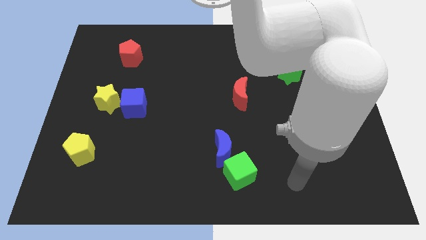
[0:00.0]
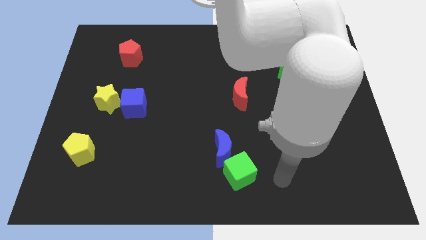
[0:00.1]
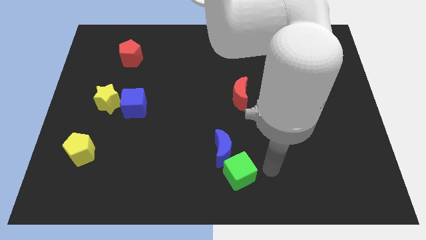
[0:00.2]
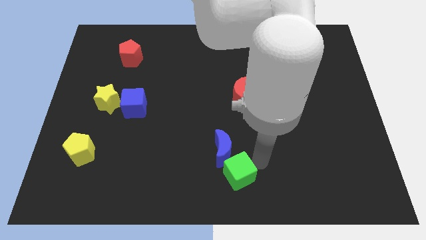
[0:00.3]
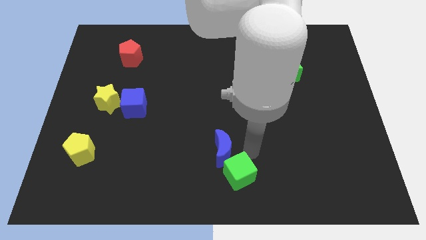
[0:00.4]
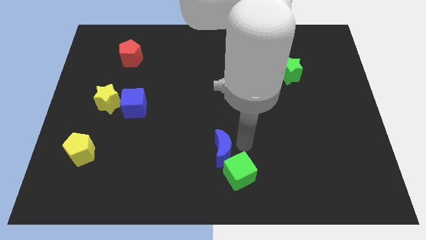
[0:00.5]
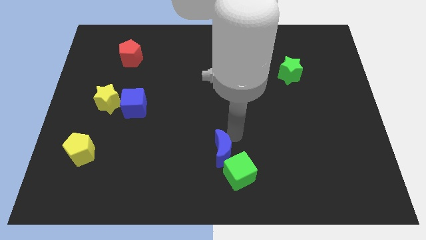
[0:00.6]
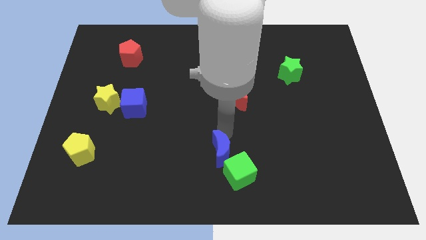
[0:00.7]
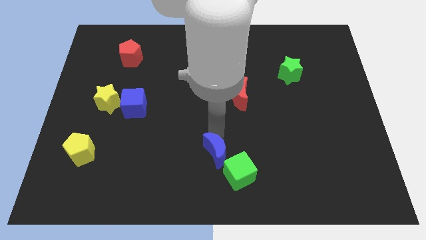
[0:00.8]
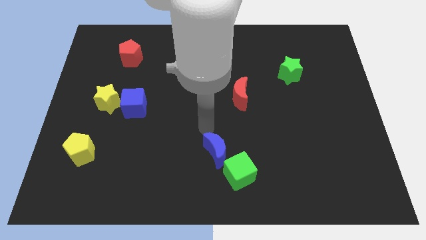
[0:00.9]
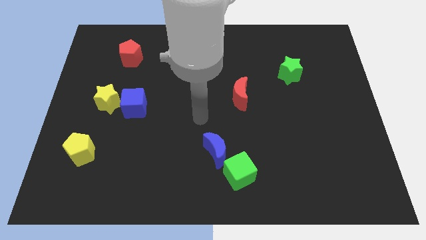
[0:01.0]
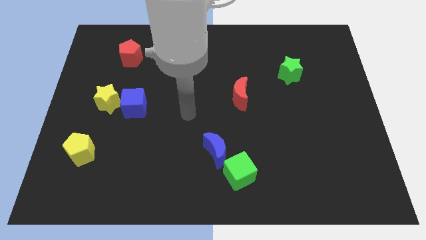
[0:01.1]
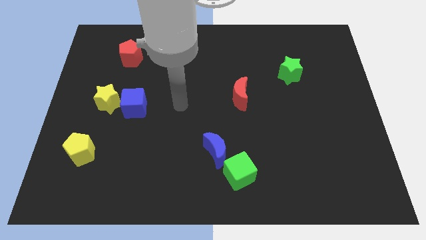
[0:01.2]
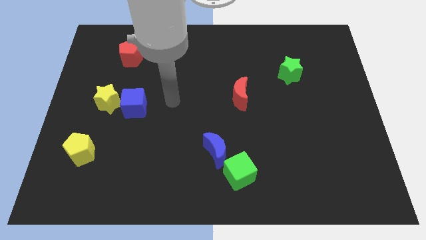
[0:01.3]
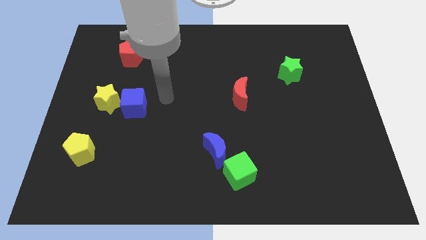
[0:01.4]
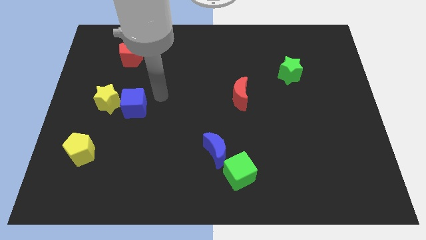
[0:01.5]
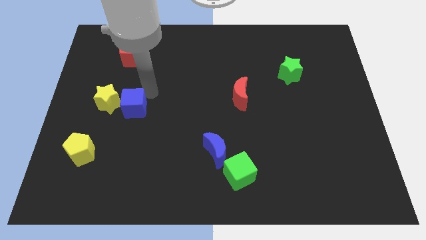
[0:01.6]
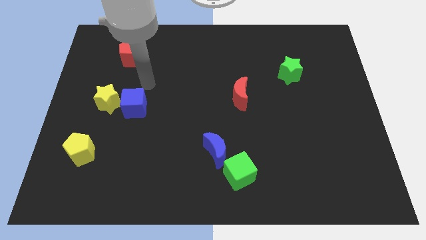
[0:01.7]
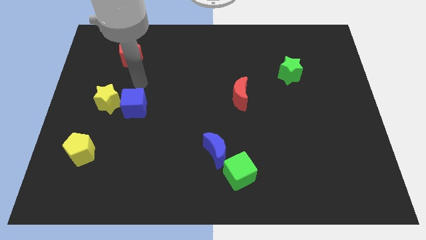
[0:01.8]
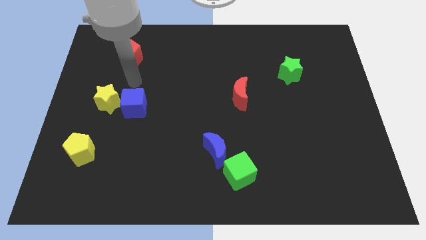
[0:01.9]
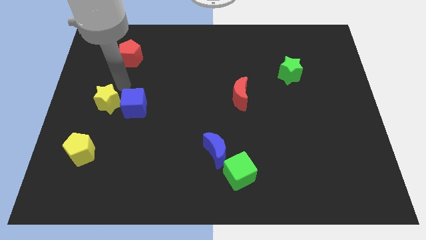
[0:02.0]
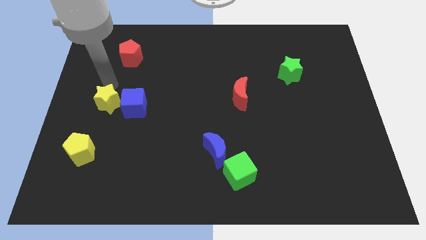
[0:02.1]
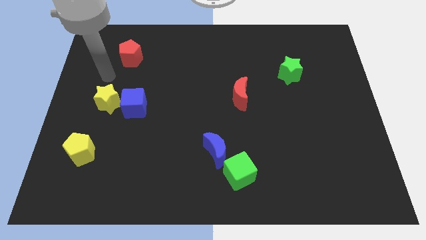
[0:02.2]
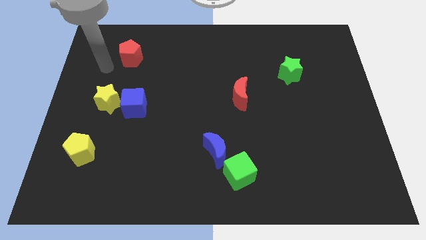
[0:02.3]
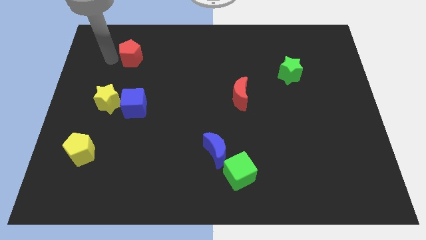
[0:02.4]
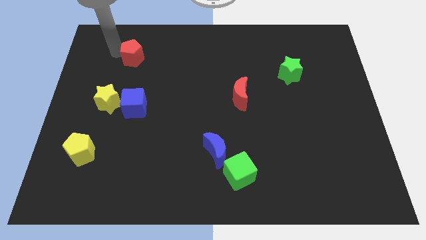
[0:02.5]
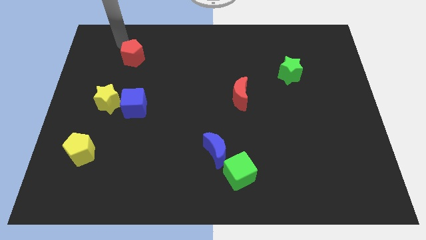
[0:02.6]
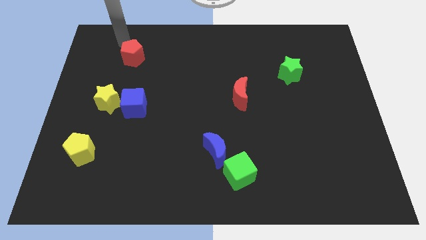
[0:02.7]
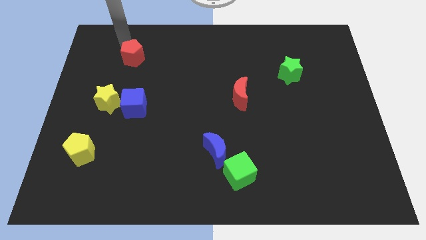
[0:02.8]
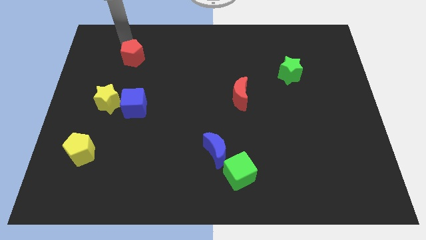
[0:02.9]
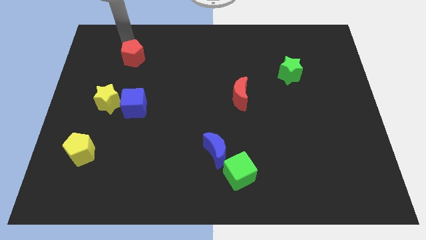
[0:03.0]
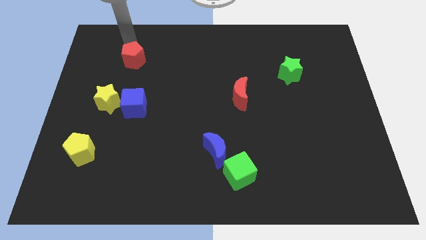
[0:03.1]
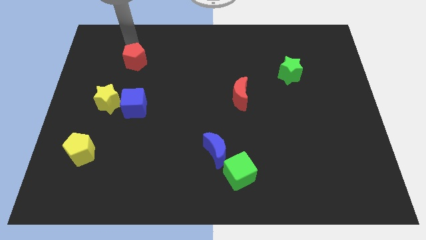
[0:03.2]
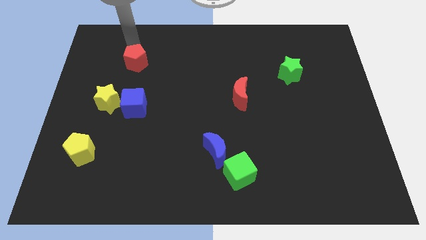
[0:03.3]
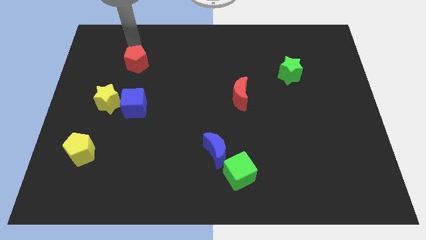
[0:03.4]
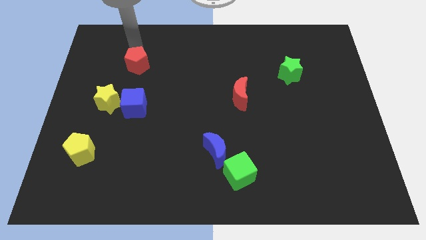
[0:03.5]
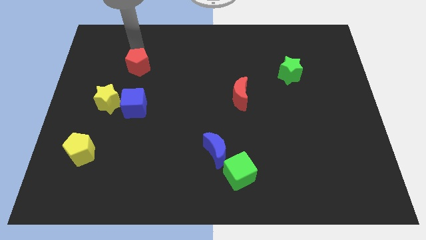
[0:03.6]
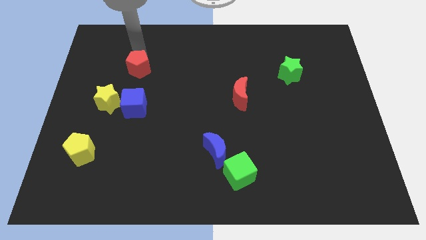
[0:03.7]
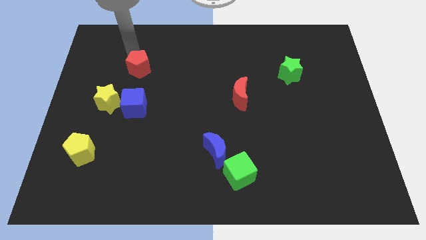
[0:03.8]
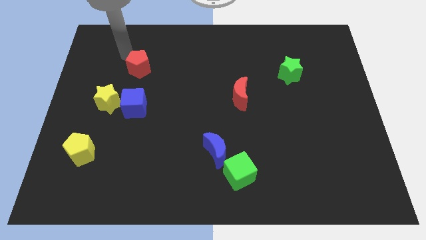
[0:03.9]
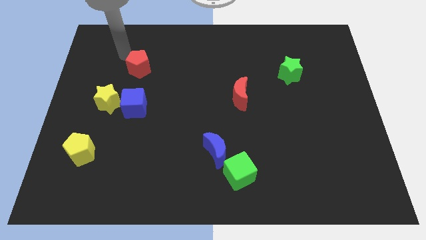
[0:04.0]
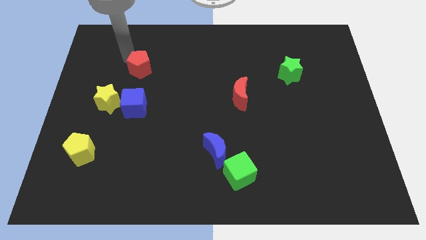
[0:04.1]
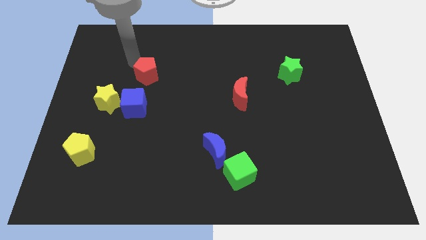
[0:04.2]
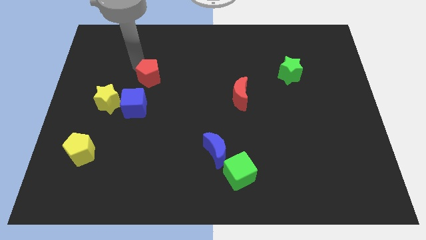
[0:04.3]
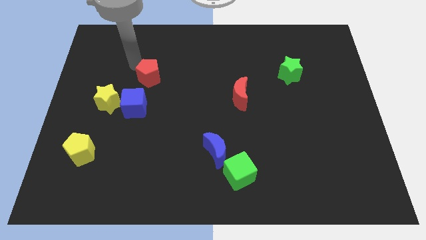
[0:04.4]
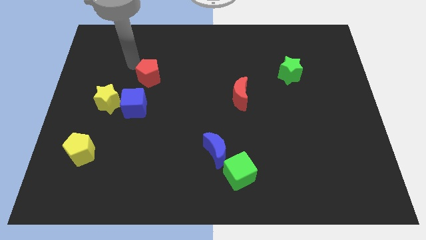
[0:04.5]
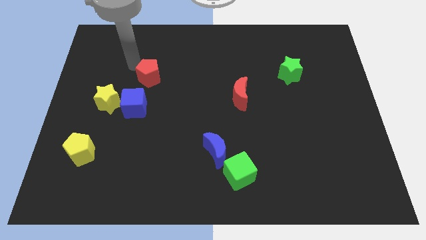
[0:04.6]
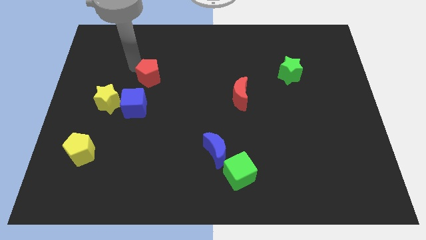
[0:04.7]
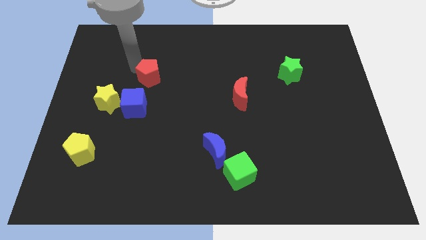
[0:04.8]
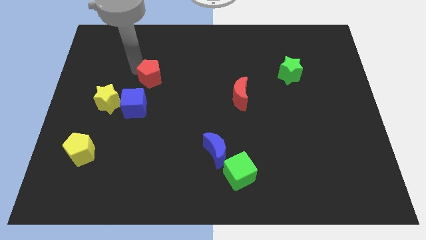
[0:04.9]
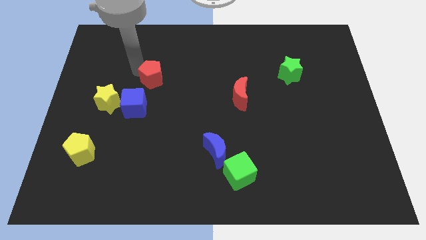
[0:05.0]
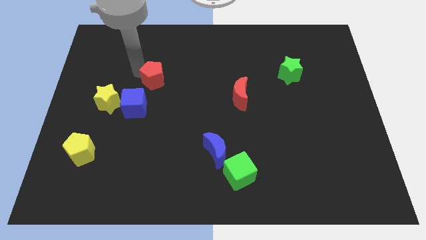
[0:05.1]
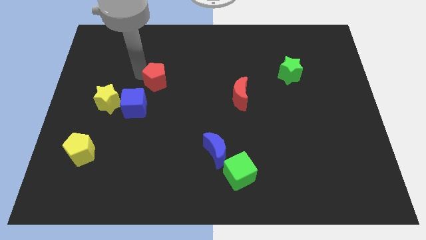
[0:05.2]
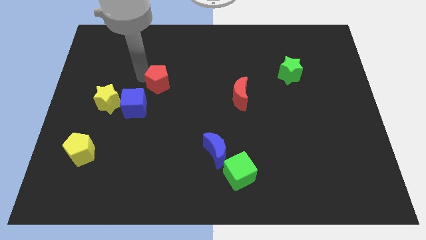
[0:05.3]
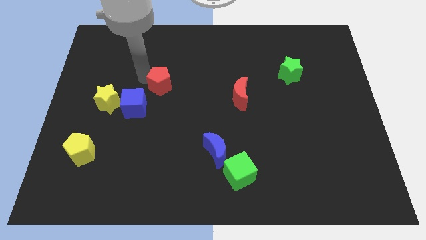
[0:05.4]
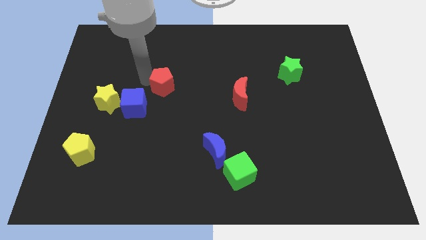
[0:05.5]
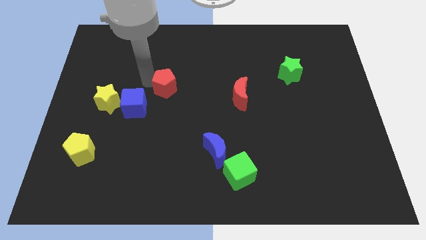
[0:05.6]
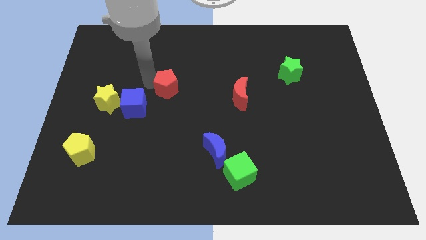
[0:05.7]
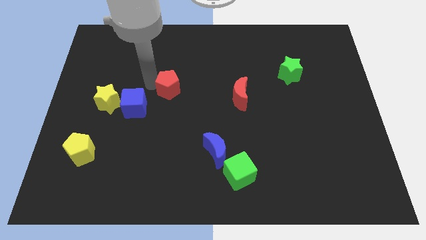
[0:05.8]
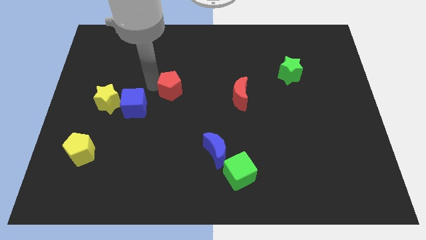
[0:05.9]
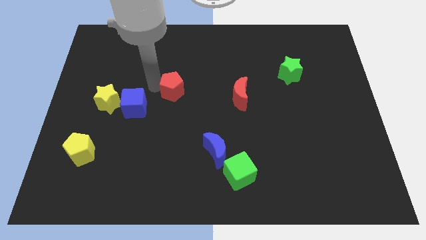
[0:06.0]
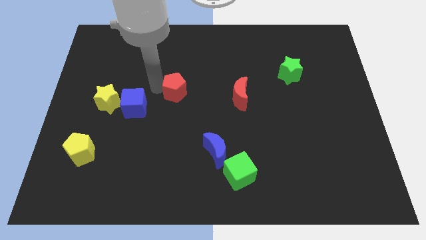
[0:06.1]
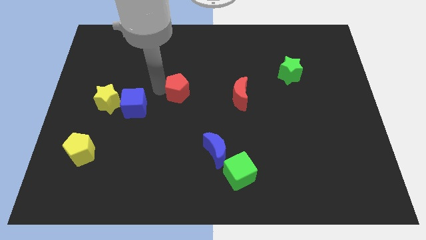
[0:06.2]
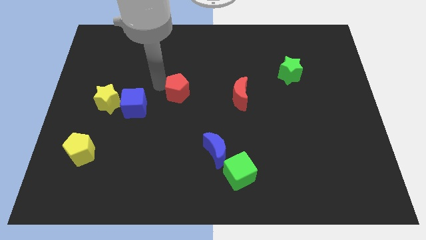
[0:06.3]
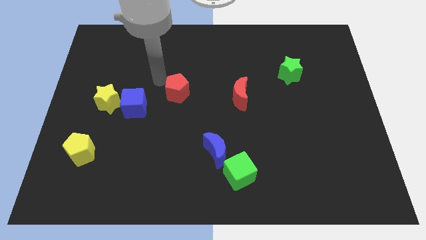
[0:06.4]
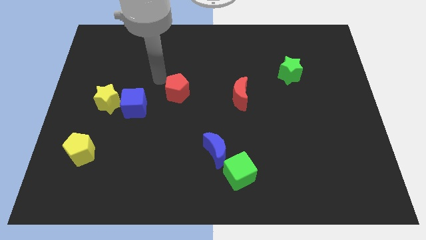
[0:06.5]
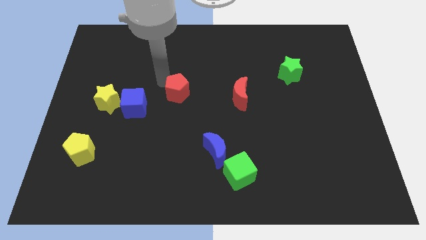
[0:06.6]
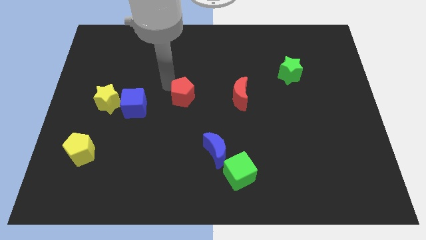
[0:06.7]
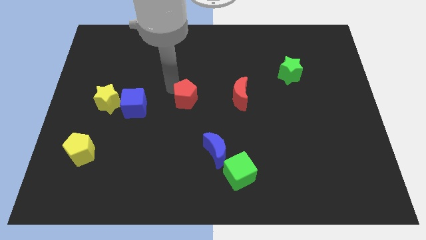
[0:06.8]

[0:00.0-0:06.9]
move the red pentagon downwards and then right

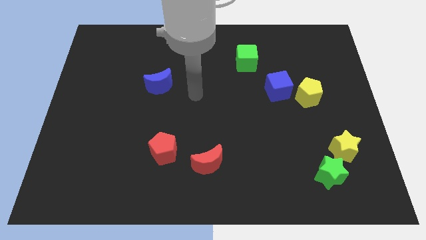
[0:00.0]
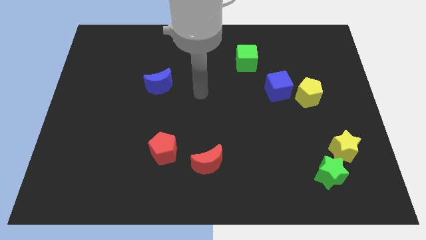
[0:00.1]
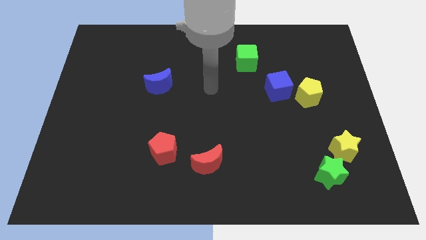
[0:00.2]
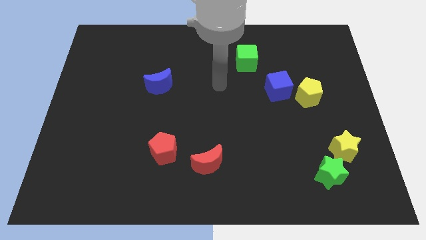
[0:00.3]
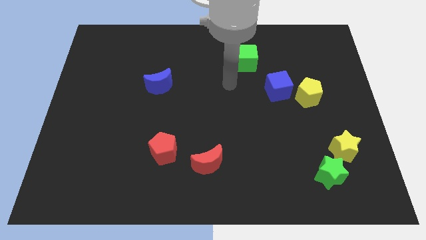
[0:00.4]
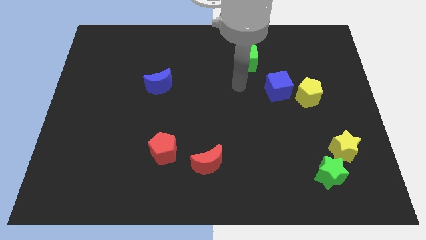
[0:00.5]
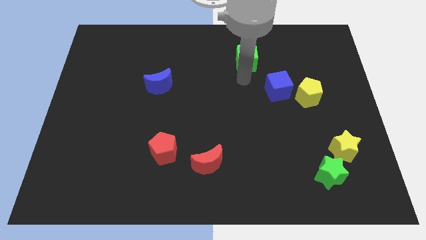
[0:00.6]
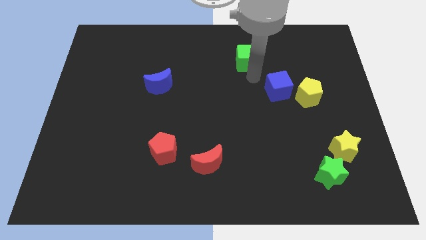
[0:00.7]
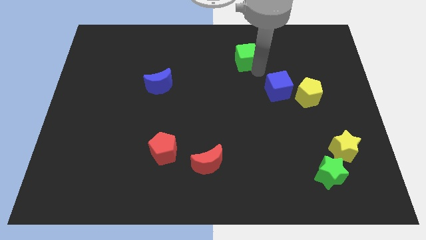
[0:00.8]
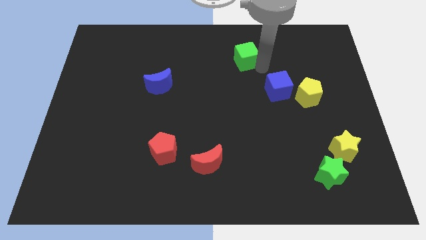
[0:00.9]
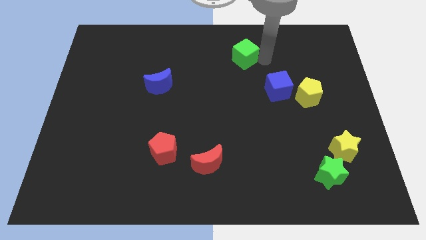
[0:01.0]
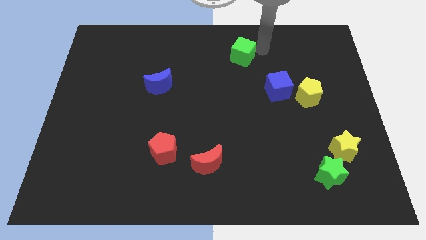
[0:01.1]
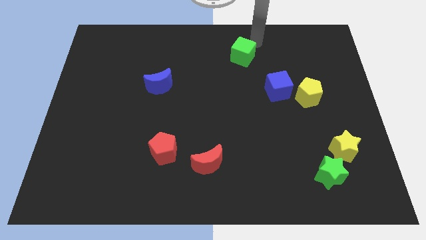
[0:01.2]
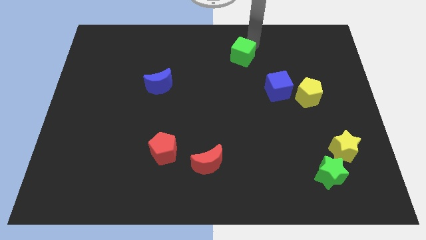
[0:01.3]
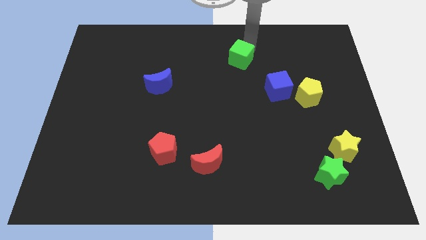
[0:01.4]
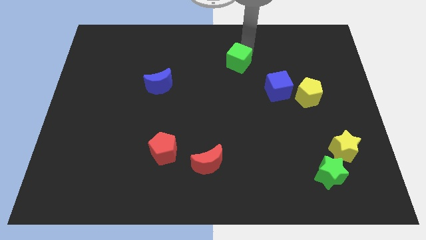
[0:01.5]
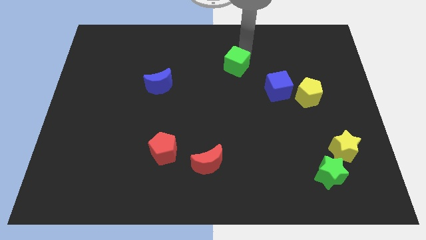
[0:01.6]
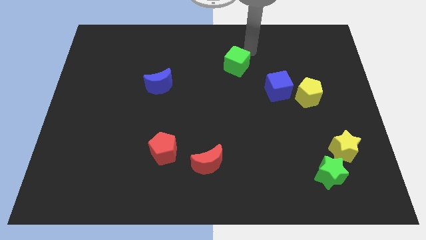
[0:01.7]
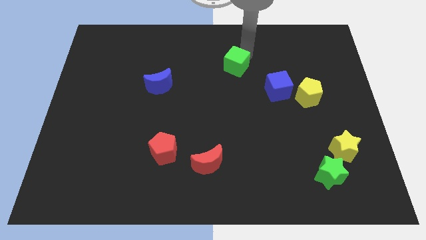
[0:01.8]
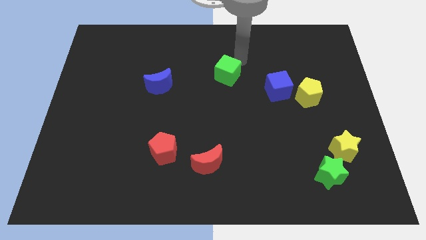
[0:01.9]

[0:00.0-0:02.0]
slightly push the green cube downwards and left

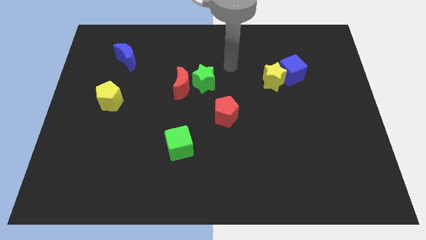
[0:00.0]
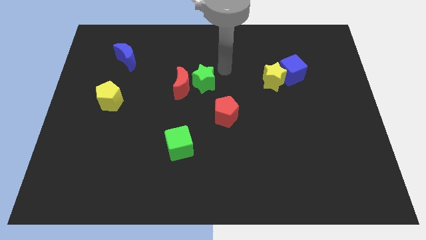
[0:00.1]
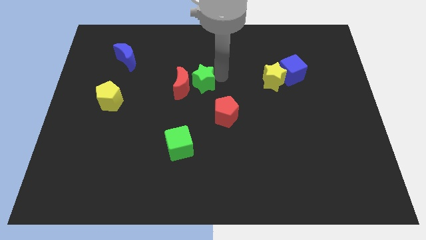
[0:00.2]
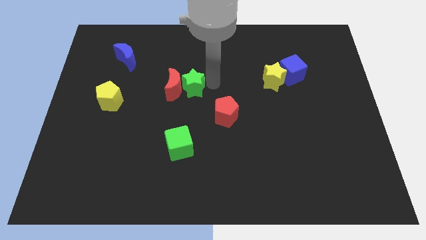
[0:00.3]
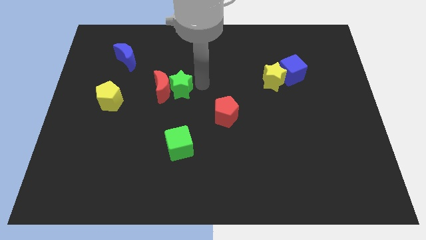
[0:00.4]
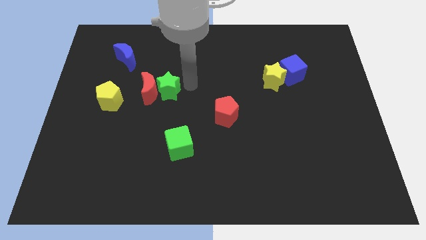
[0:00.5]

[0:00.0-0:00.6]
slide the red moon slightly left
